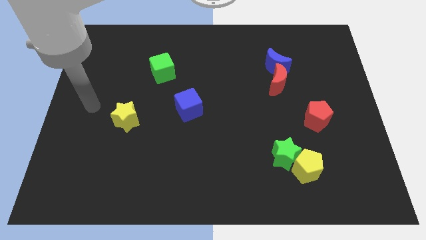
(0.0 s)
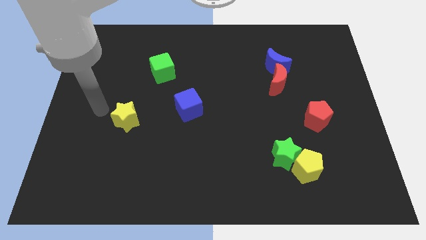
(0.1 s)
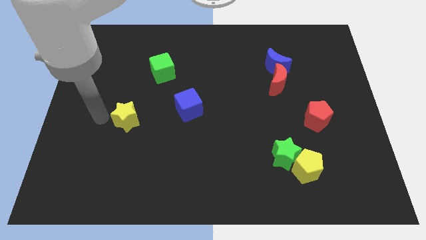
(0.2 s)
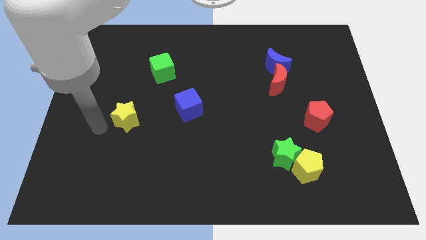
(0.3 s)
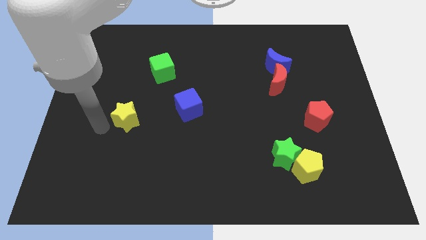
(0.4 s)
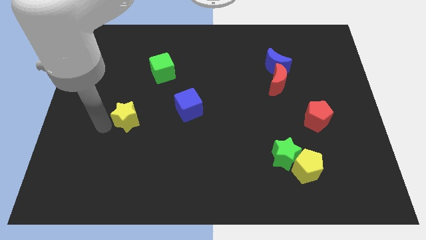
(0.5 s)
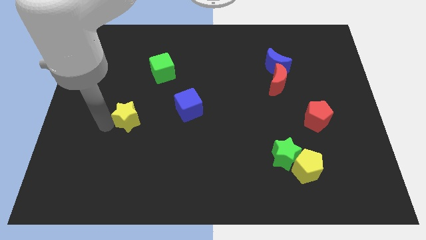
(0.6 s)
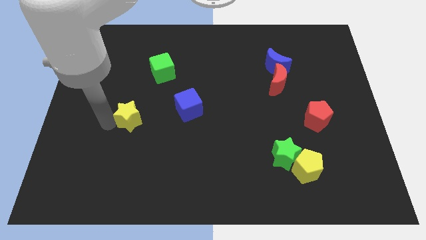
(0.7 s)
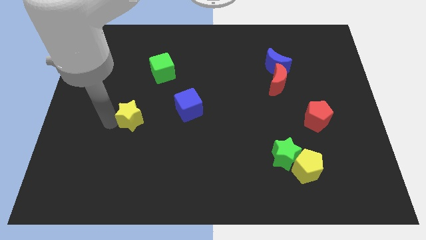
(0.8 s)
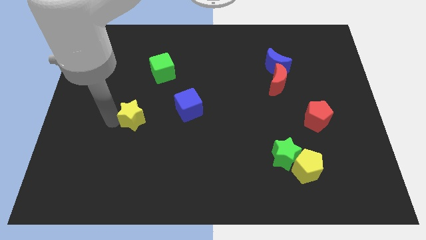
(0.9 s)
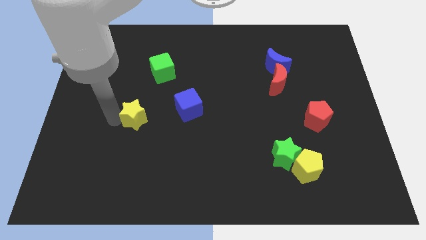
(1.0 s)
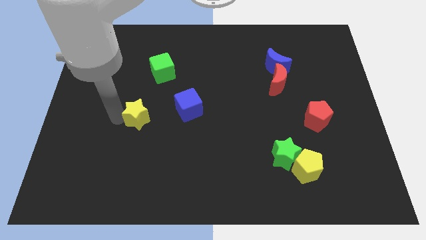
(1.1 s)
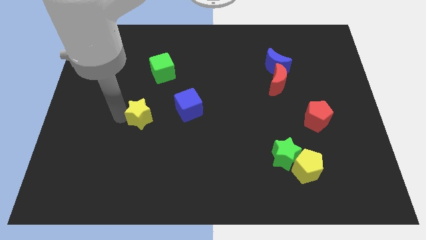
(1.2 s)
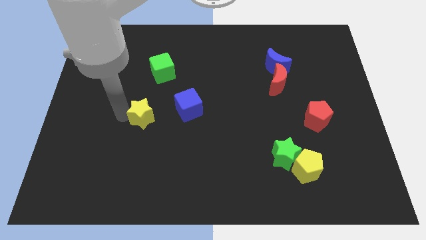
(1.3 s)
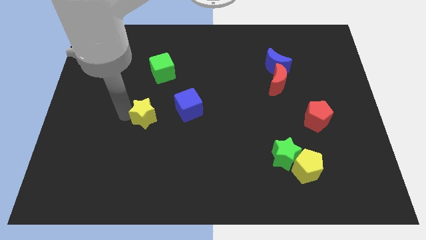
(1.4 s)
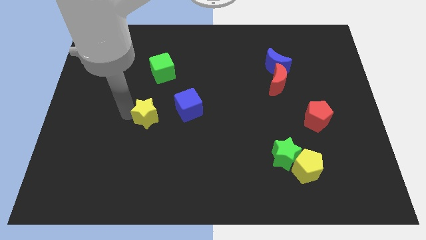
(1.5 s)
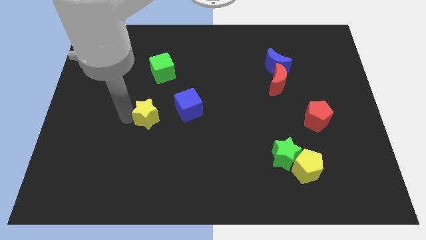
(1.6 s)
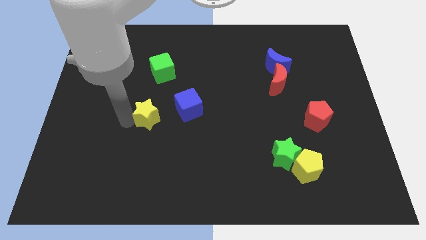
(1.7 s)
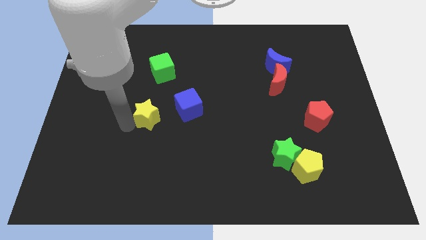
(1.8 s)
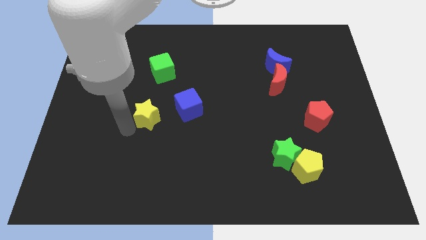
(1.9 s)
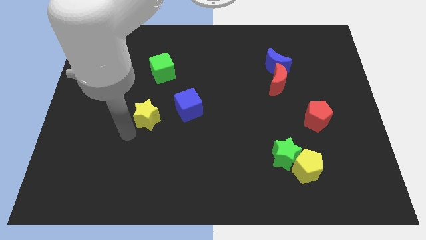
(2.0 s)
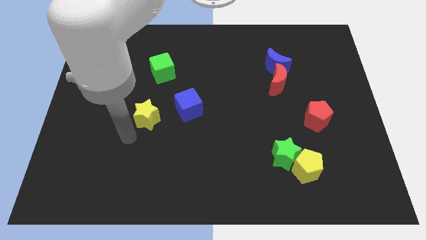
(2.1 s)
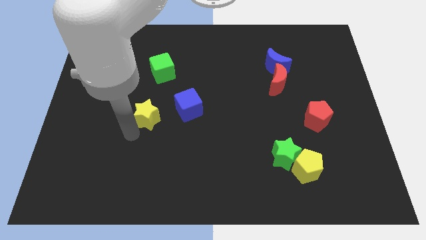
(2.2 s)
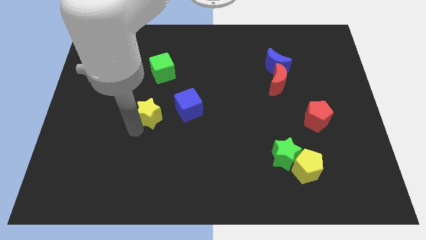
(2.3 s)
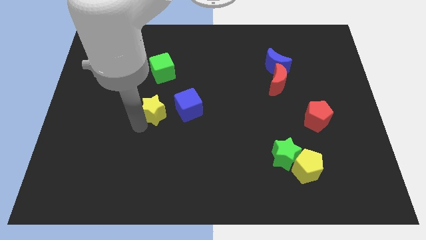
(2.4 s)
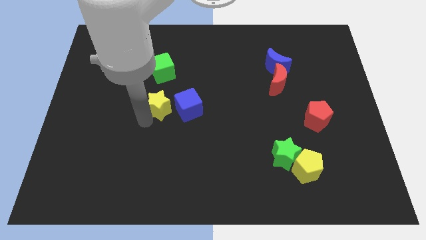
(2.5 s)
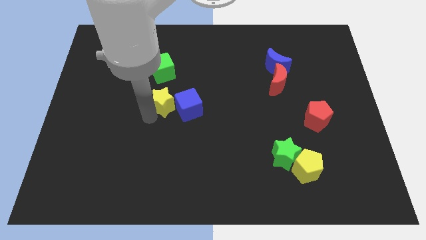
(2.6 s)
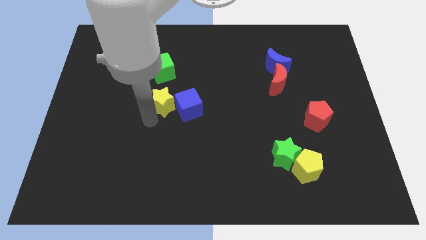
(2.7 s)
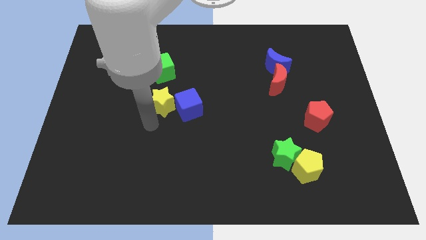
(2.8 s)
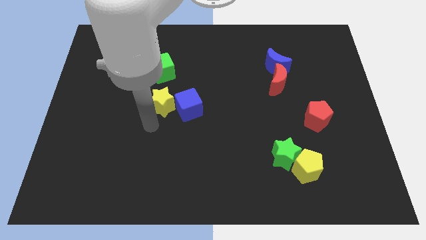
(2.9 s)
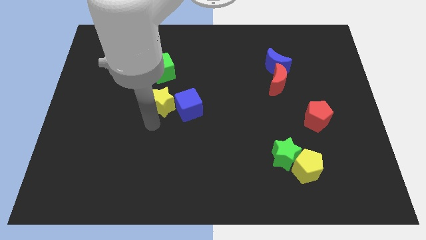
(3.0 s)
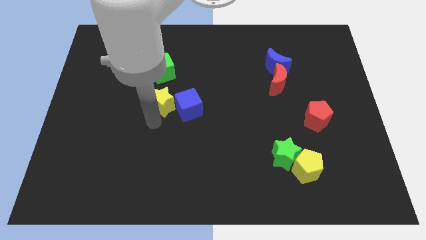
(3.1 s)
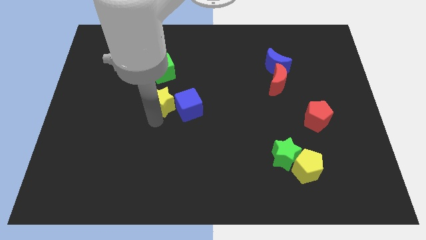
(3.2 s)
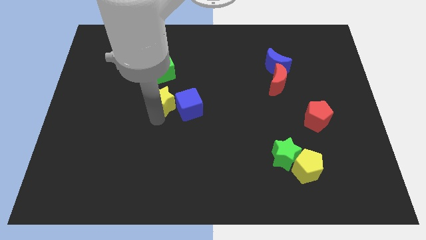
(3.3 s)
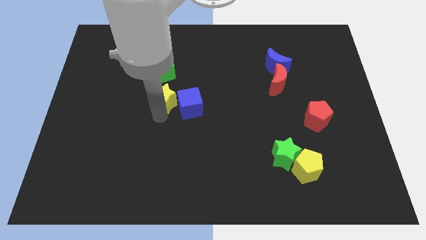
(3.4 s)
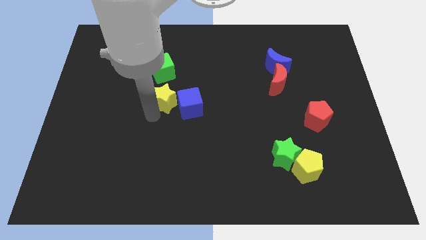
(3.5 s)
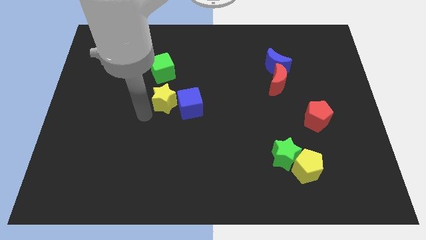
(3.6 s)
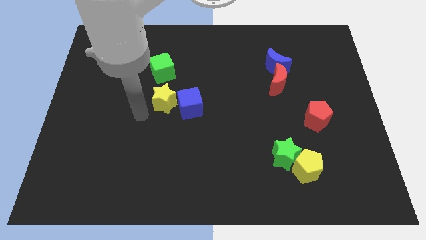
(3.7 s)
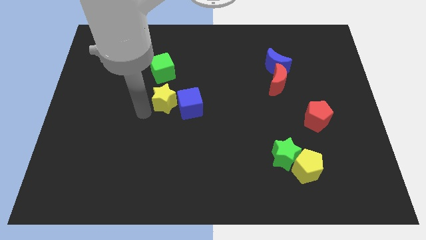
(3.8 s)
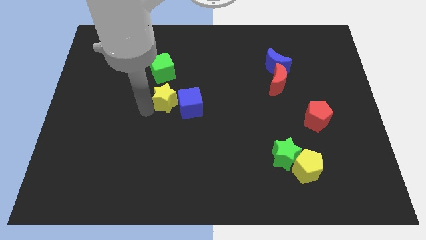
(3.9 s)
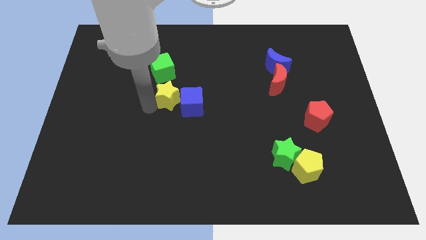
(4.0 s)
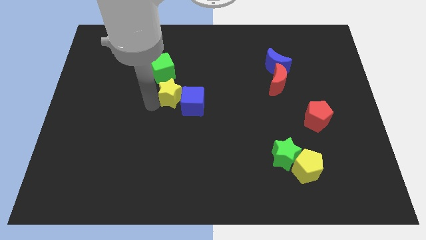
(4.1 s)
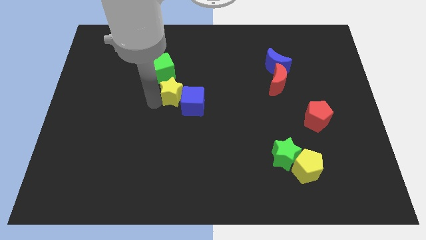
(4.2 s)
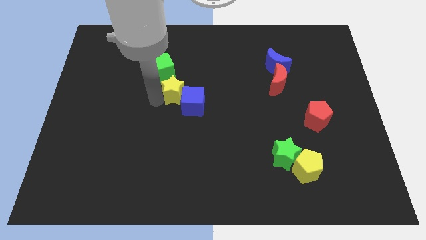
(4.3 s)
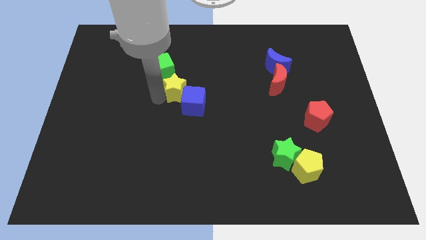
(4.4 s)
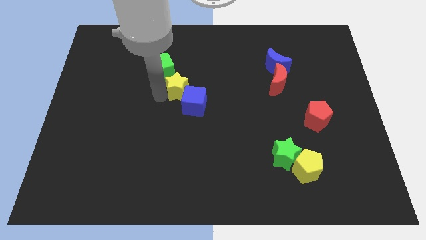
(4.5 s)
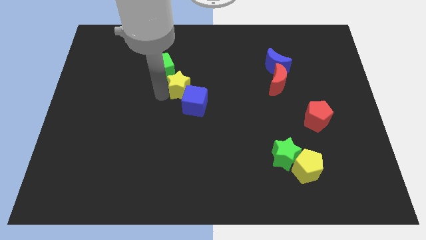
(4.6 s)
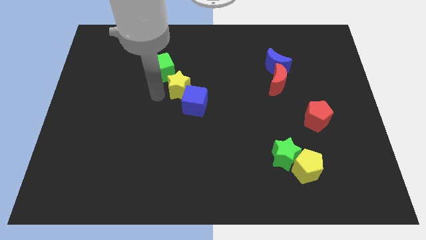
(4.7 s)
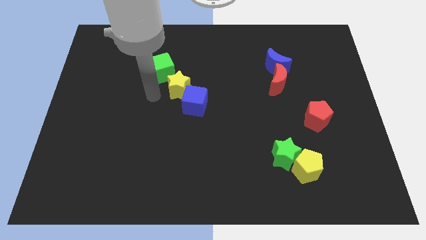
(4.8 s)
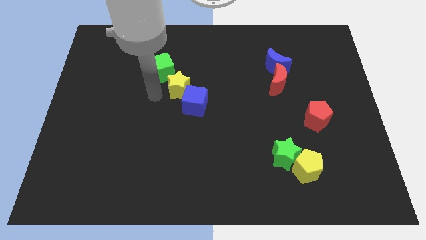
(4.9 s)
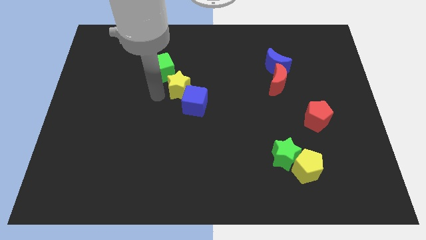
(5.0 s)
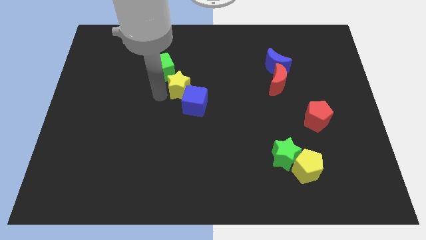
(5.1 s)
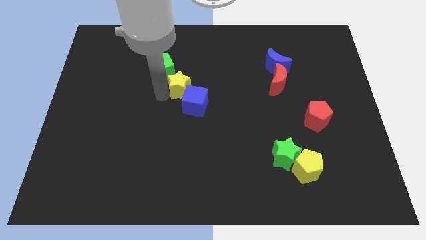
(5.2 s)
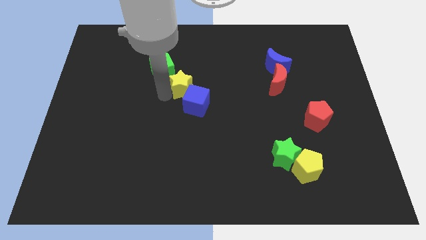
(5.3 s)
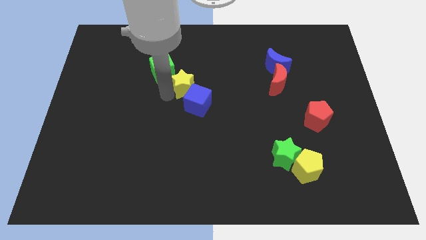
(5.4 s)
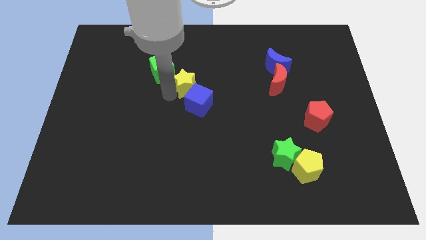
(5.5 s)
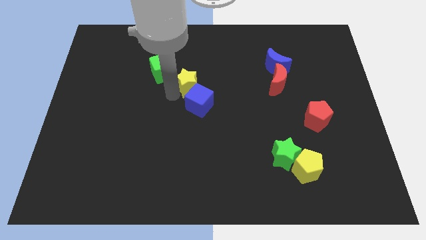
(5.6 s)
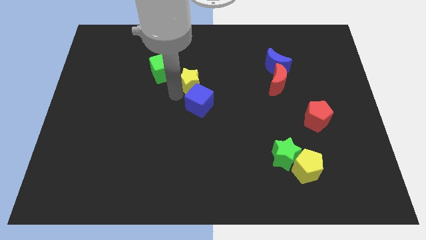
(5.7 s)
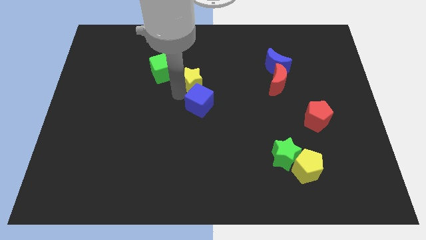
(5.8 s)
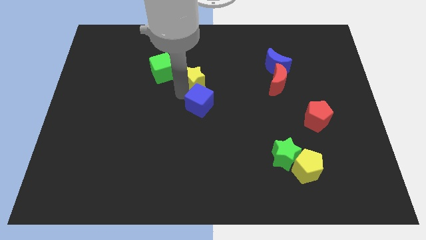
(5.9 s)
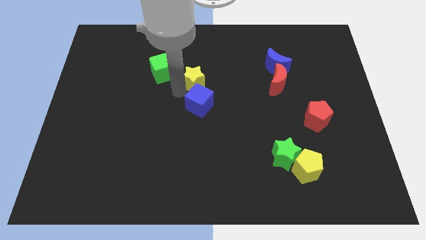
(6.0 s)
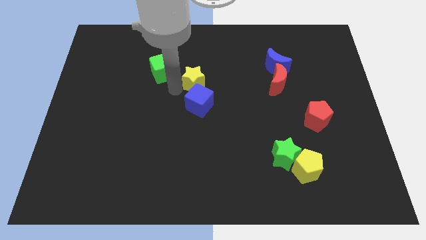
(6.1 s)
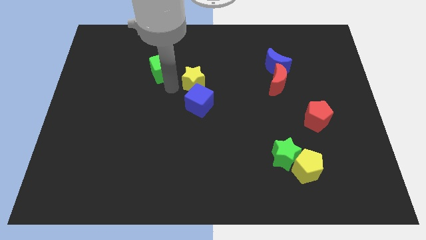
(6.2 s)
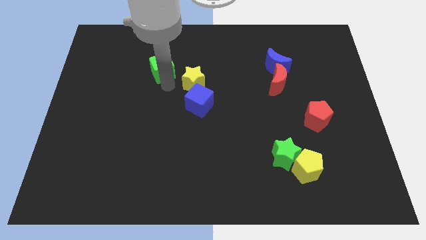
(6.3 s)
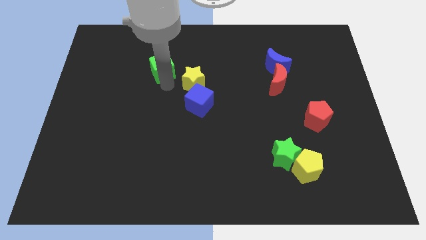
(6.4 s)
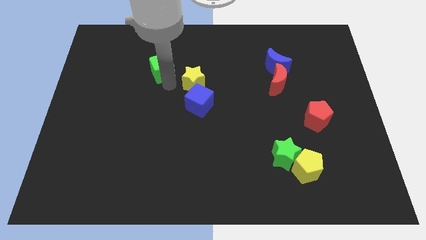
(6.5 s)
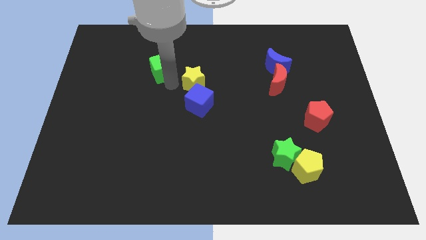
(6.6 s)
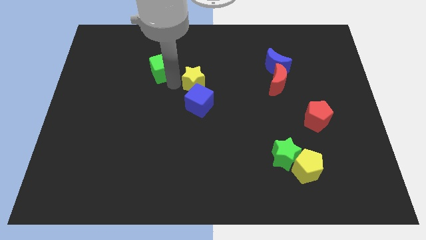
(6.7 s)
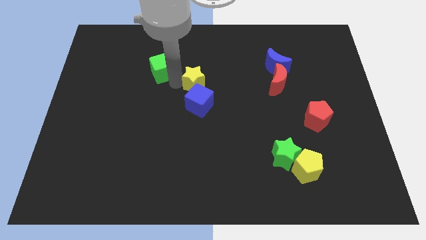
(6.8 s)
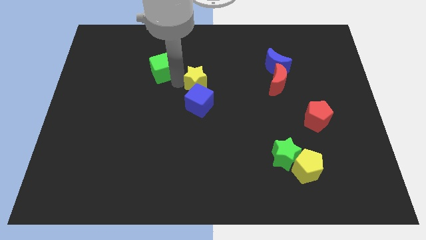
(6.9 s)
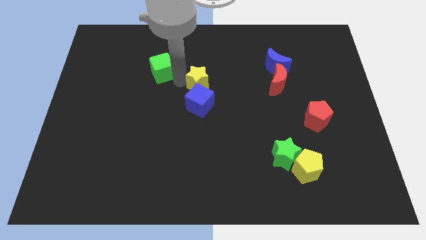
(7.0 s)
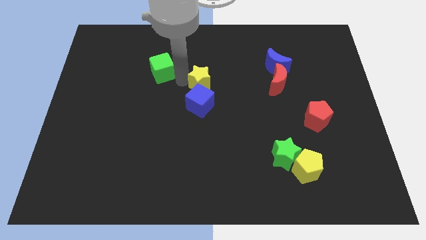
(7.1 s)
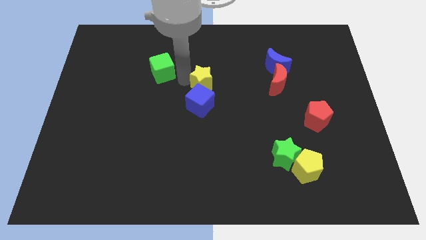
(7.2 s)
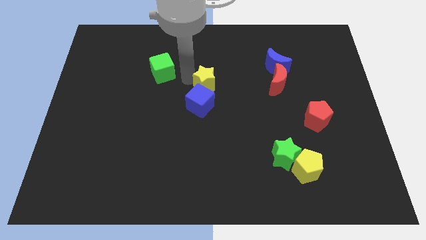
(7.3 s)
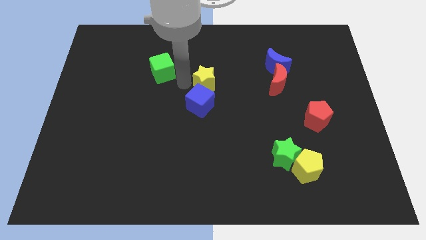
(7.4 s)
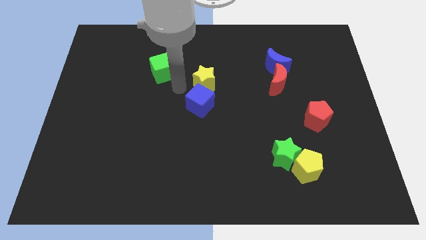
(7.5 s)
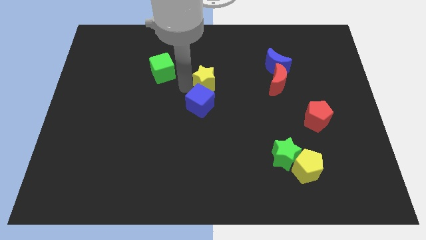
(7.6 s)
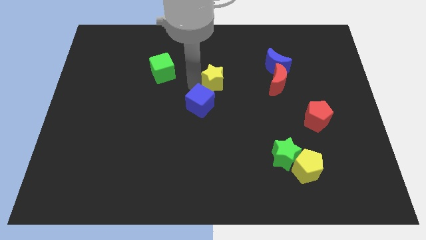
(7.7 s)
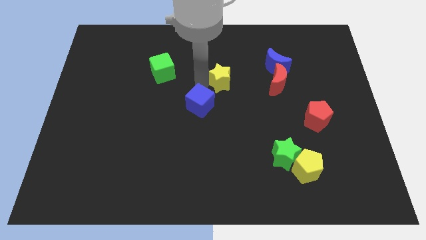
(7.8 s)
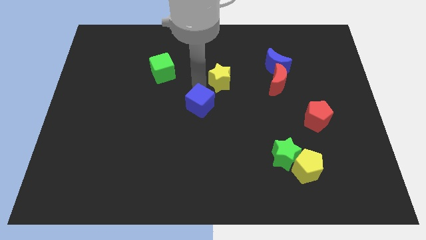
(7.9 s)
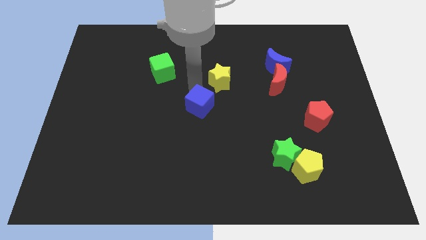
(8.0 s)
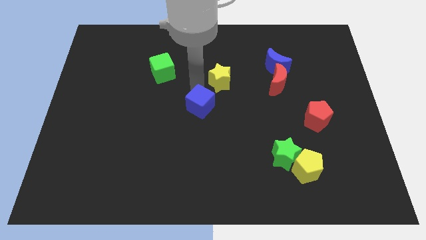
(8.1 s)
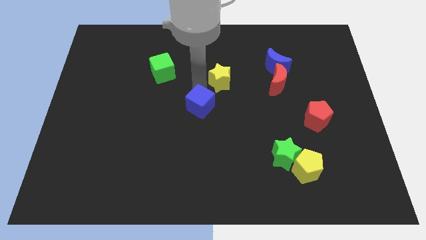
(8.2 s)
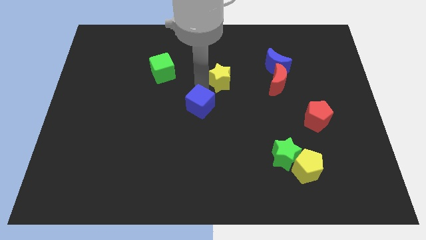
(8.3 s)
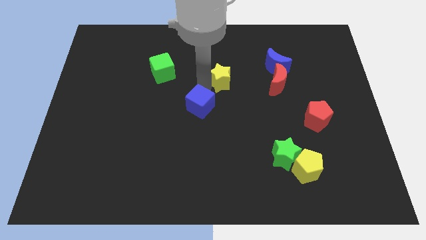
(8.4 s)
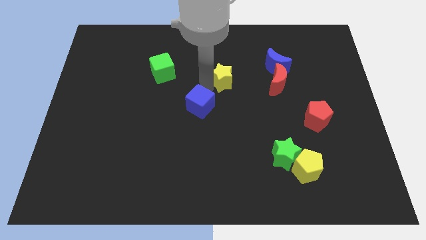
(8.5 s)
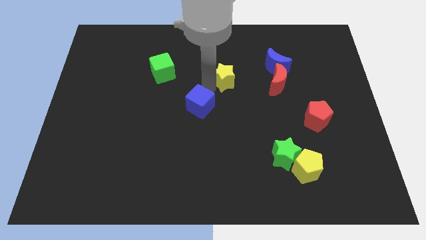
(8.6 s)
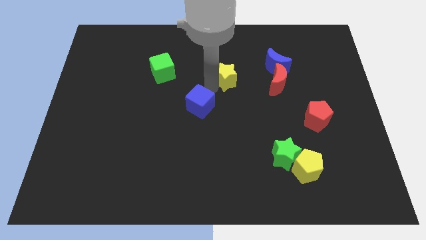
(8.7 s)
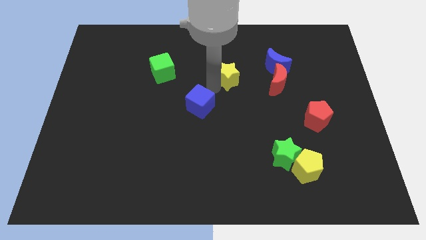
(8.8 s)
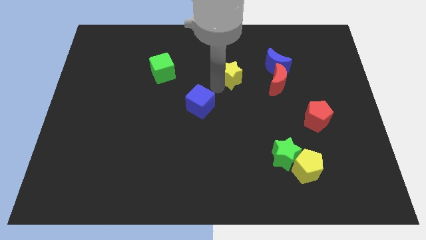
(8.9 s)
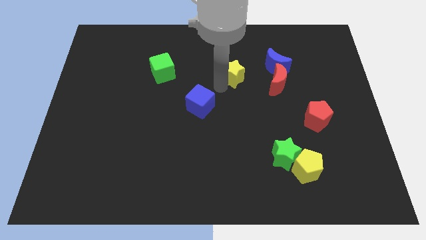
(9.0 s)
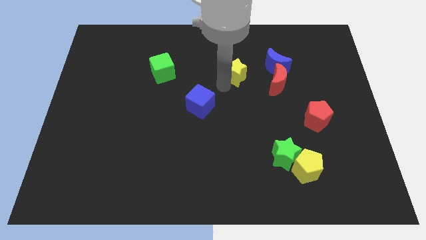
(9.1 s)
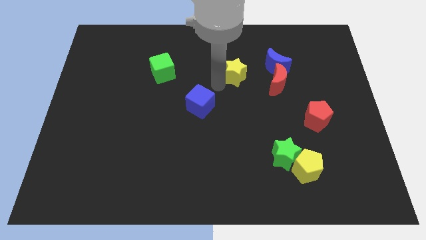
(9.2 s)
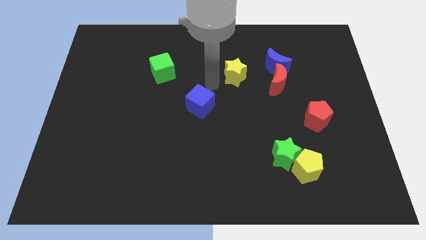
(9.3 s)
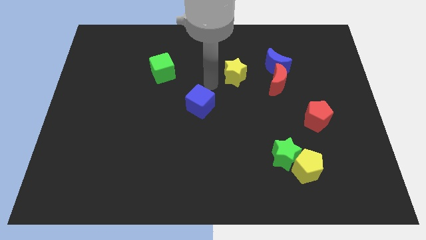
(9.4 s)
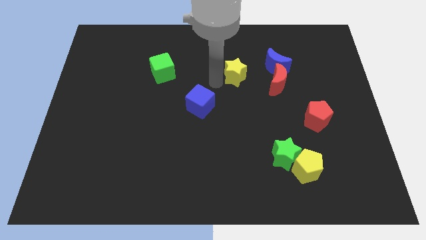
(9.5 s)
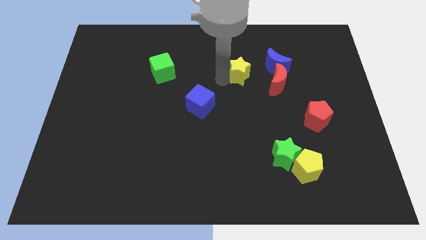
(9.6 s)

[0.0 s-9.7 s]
push the yellow star to the top left side of the red moon
